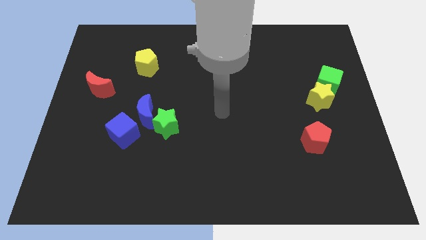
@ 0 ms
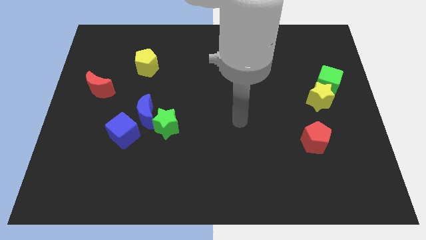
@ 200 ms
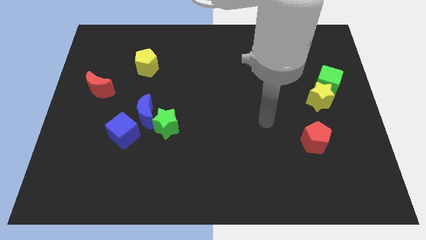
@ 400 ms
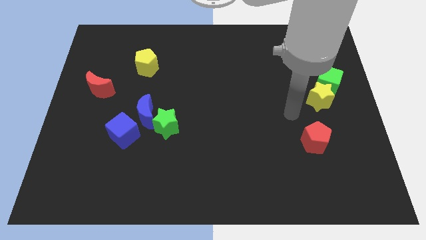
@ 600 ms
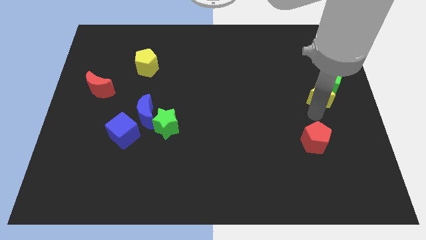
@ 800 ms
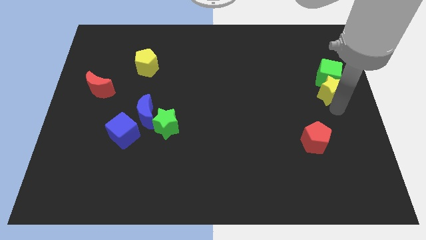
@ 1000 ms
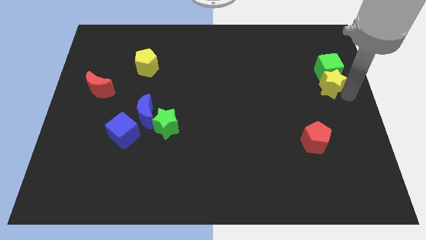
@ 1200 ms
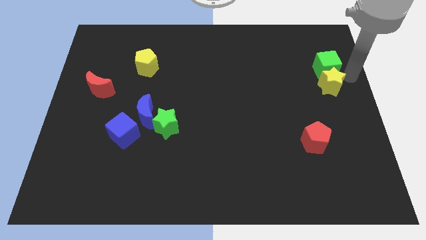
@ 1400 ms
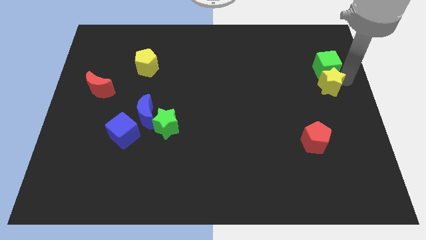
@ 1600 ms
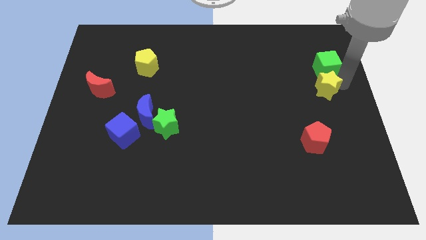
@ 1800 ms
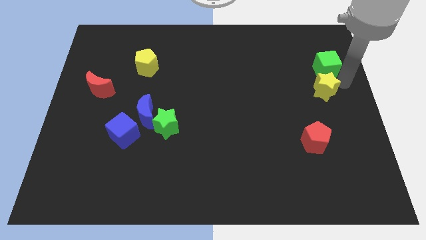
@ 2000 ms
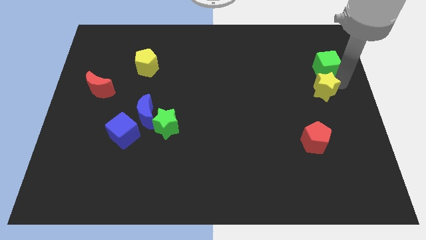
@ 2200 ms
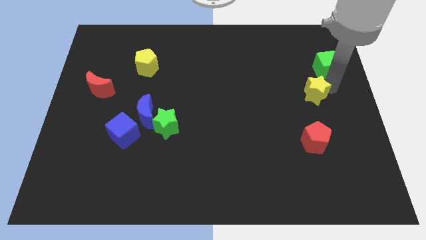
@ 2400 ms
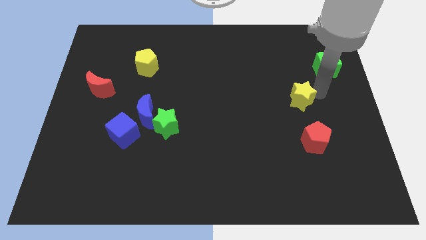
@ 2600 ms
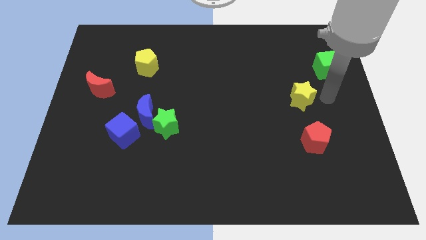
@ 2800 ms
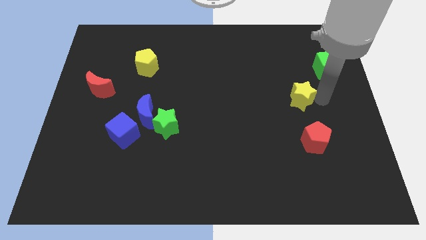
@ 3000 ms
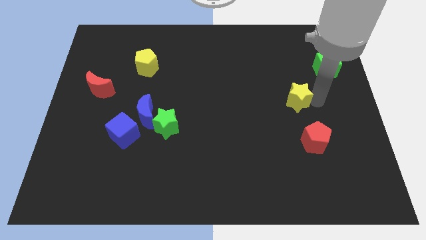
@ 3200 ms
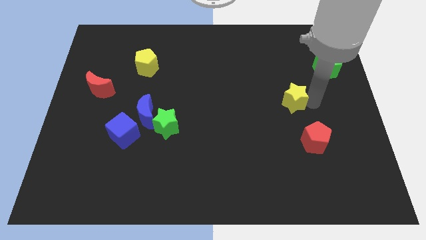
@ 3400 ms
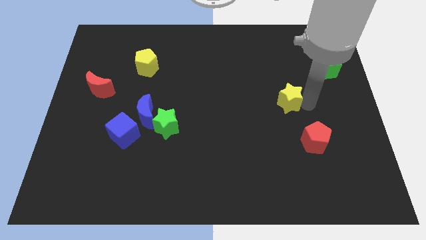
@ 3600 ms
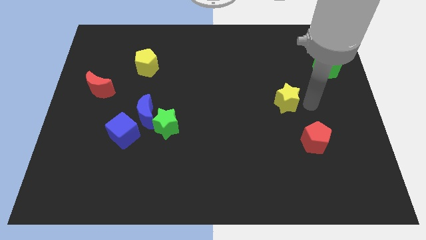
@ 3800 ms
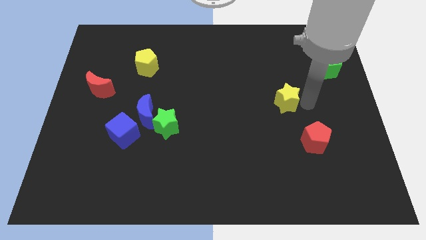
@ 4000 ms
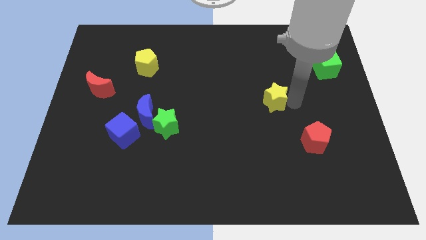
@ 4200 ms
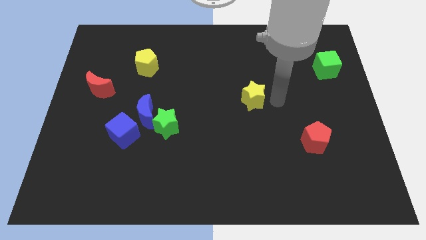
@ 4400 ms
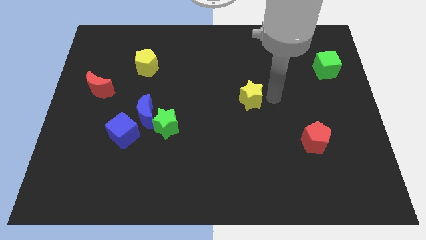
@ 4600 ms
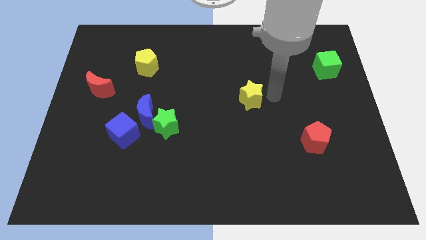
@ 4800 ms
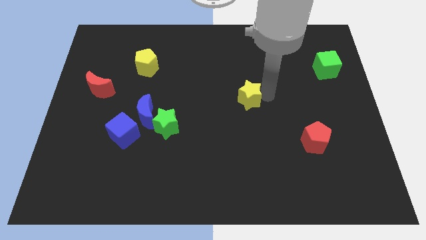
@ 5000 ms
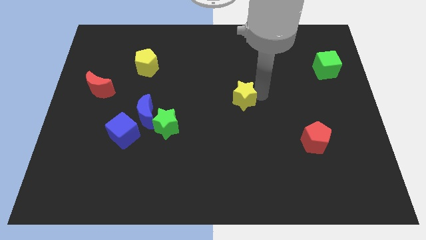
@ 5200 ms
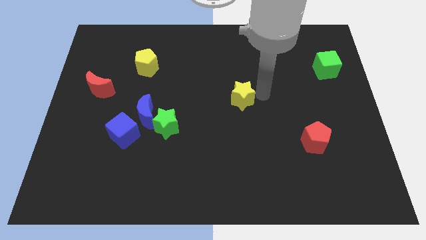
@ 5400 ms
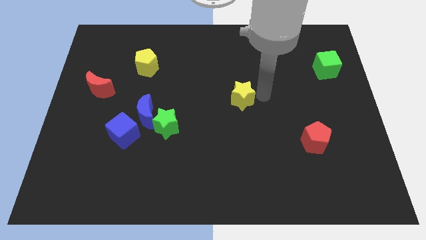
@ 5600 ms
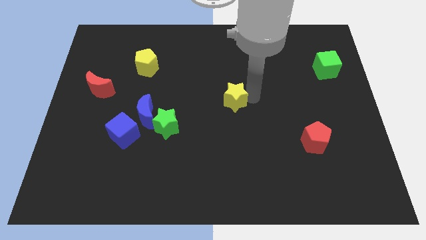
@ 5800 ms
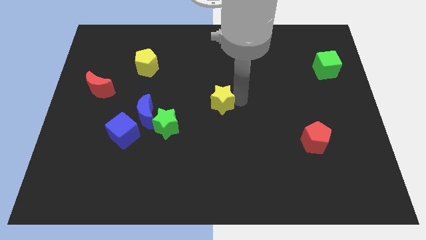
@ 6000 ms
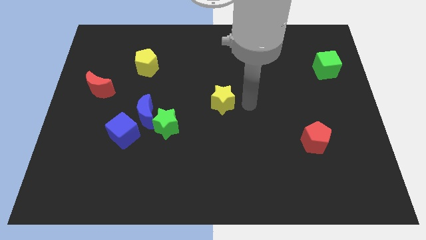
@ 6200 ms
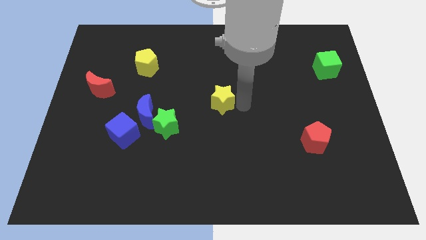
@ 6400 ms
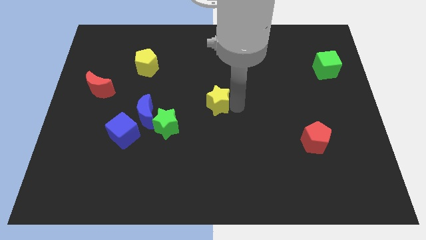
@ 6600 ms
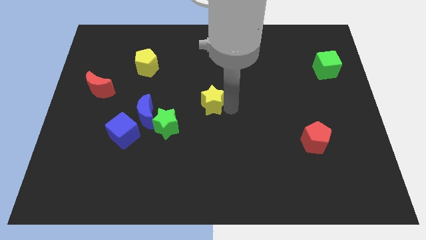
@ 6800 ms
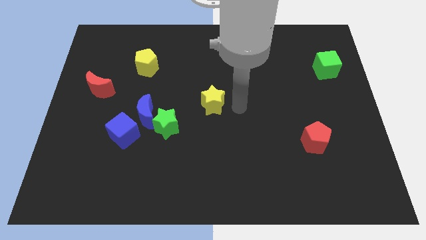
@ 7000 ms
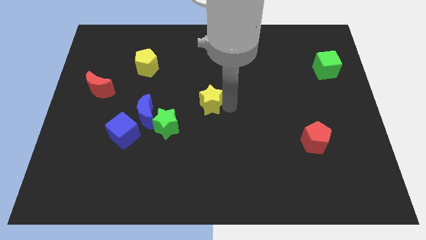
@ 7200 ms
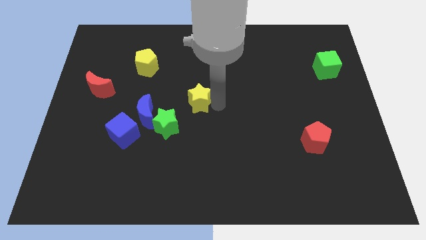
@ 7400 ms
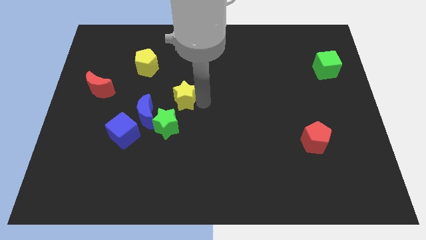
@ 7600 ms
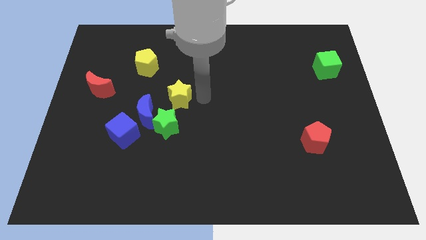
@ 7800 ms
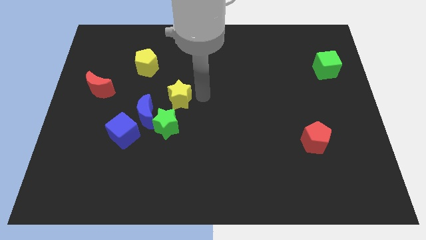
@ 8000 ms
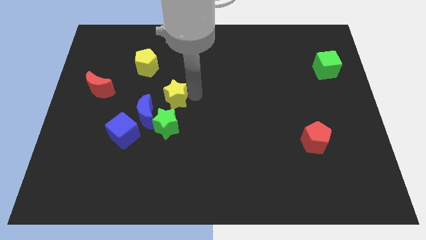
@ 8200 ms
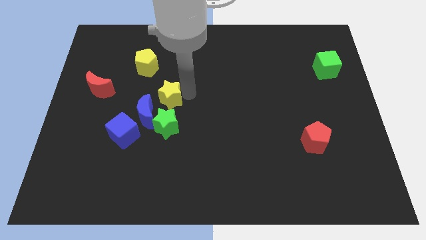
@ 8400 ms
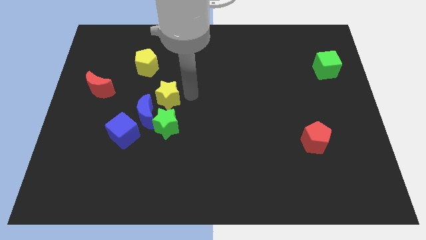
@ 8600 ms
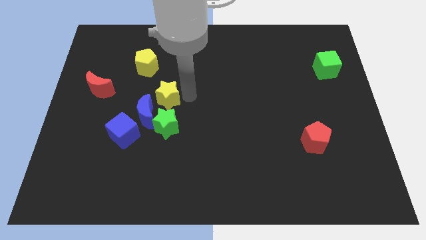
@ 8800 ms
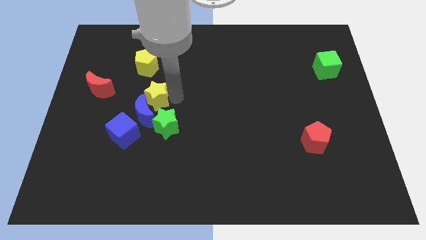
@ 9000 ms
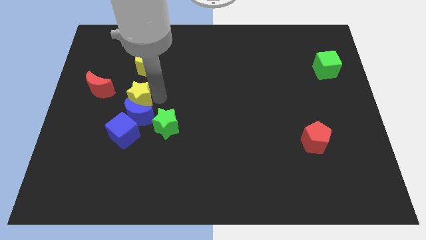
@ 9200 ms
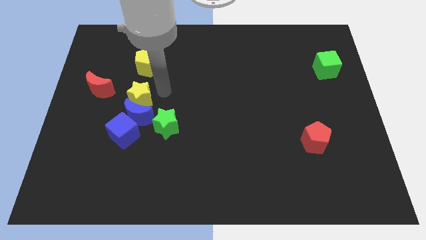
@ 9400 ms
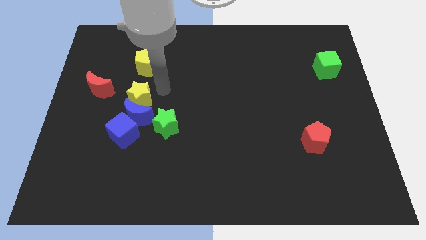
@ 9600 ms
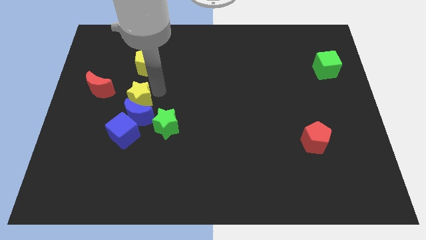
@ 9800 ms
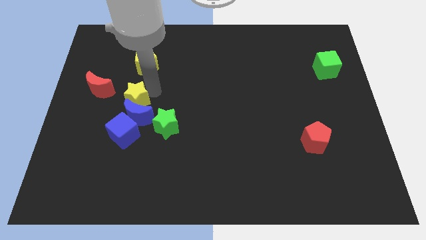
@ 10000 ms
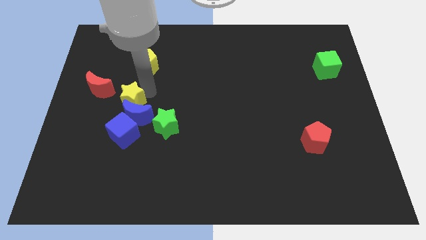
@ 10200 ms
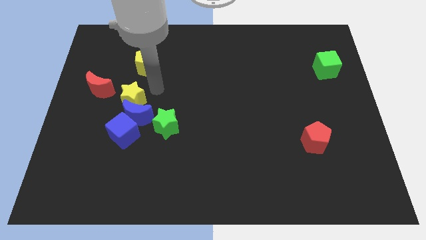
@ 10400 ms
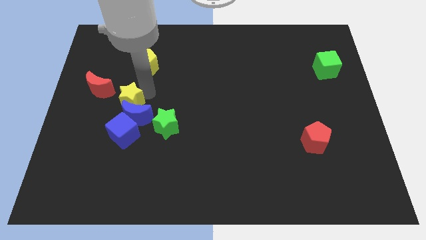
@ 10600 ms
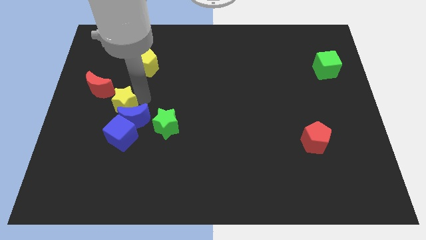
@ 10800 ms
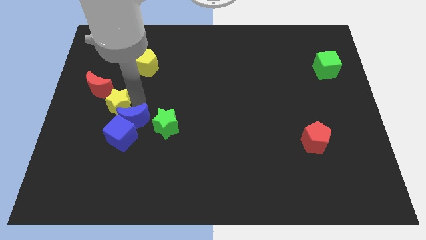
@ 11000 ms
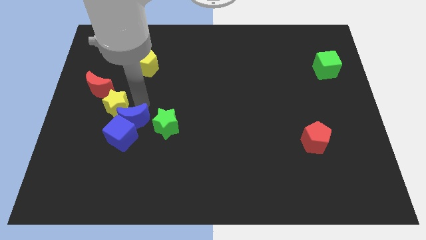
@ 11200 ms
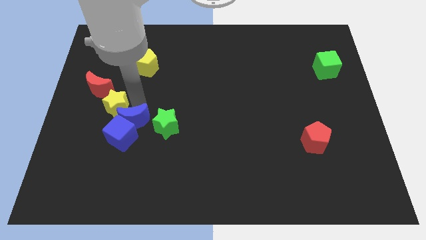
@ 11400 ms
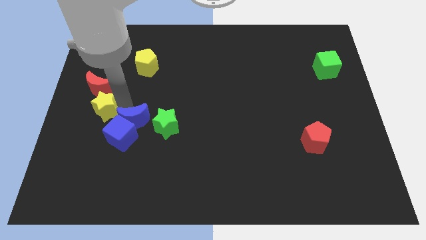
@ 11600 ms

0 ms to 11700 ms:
push the yellow star to the left side of the board

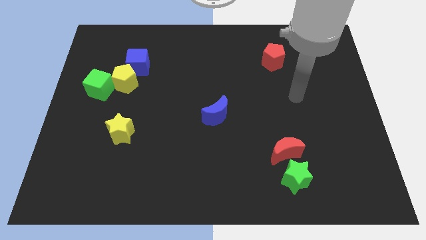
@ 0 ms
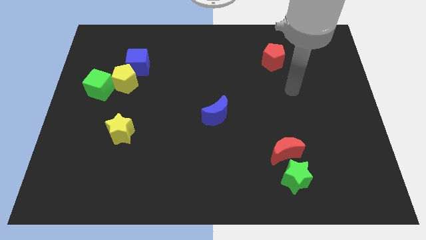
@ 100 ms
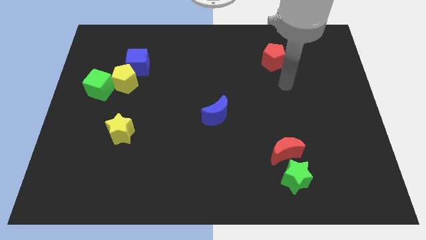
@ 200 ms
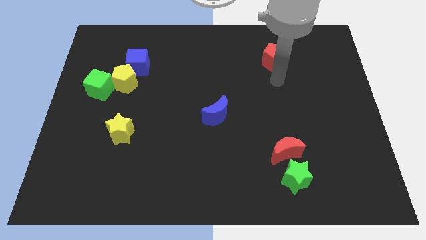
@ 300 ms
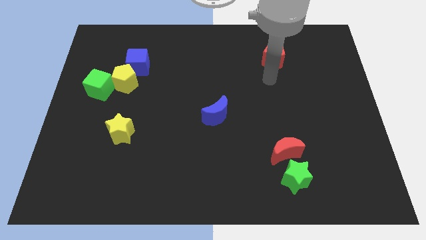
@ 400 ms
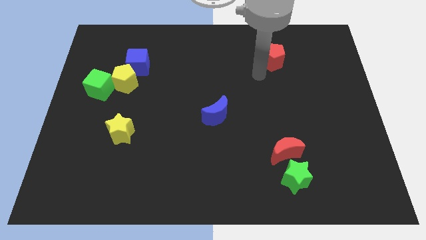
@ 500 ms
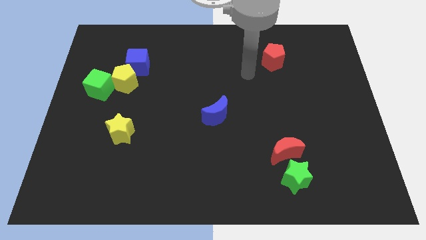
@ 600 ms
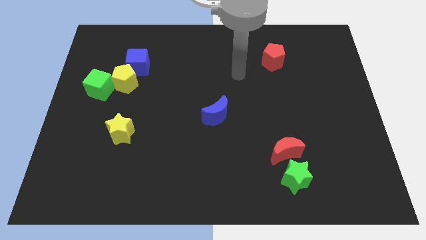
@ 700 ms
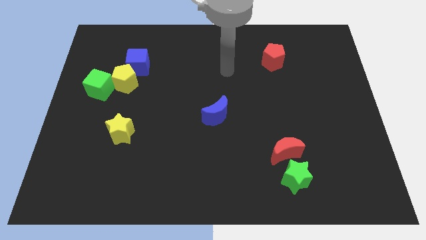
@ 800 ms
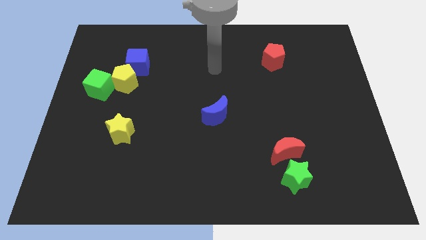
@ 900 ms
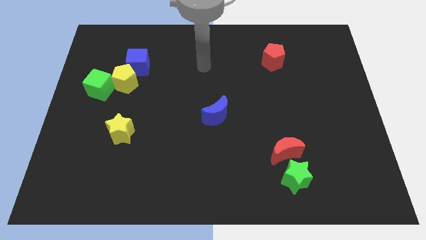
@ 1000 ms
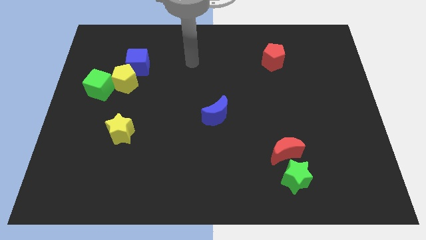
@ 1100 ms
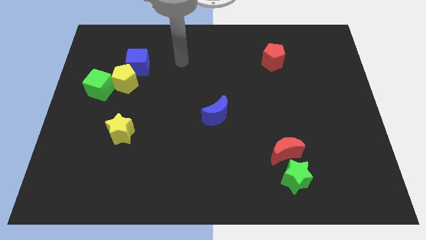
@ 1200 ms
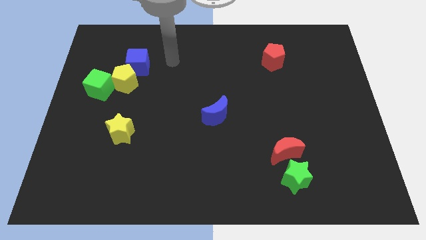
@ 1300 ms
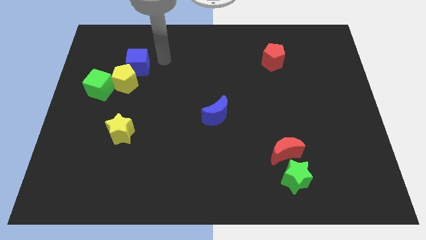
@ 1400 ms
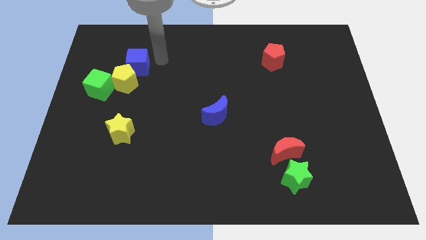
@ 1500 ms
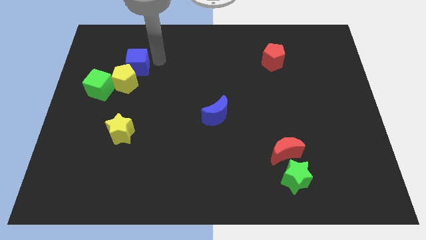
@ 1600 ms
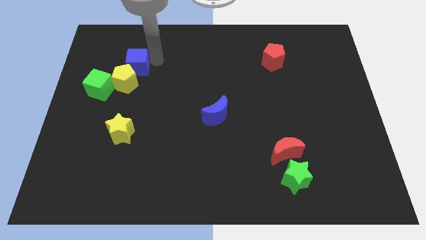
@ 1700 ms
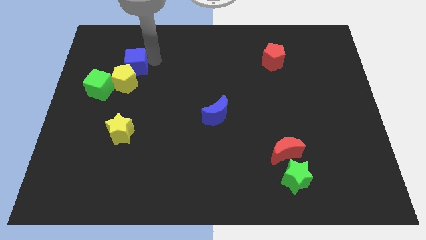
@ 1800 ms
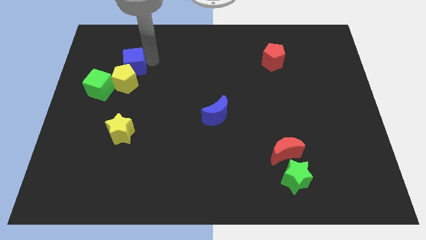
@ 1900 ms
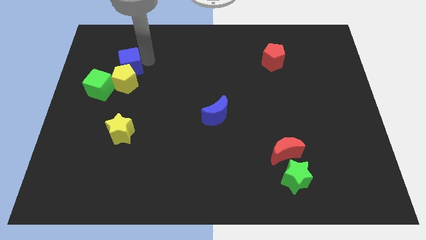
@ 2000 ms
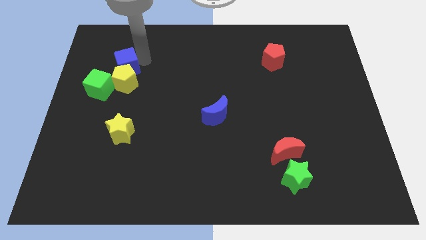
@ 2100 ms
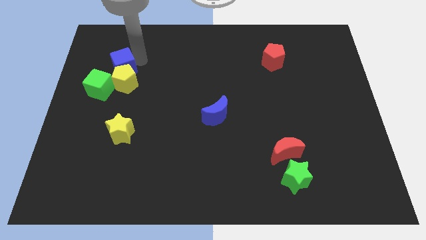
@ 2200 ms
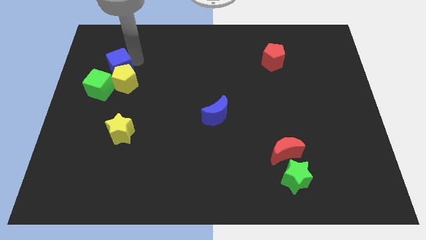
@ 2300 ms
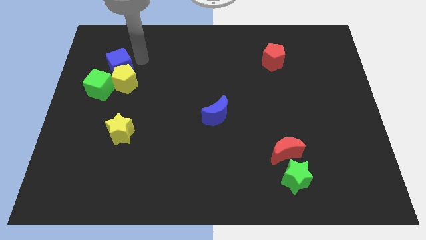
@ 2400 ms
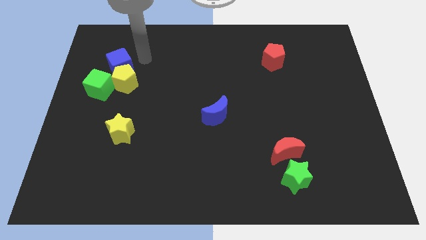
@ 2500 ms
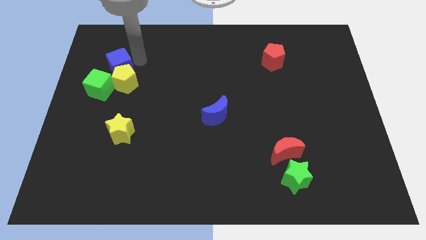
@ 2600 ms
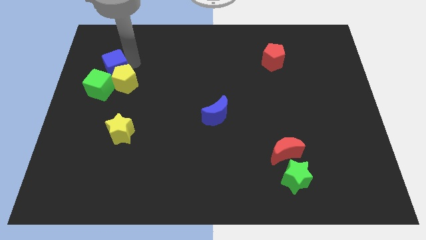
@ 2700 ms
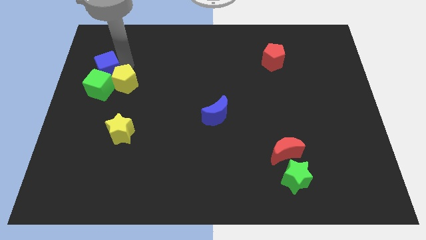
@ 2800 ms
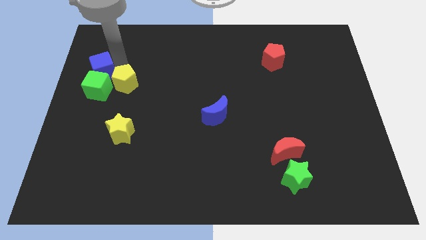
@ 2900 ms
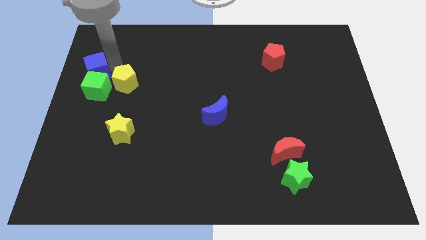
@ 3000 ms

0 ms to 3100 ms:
move the blue cube to the left side
